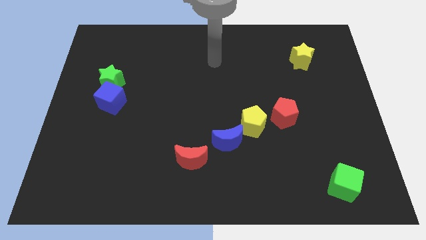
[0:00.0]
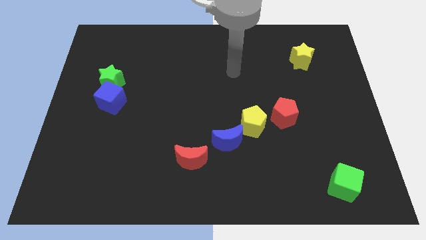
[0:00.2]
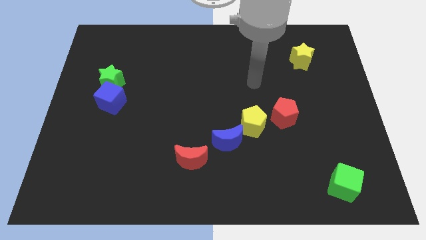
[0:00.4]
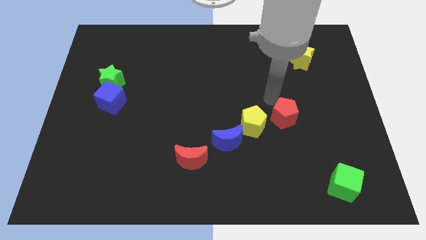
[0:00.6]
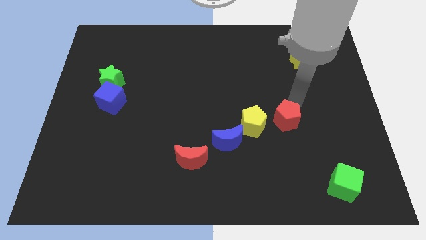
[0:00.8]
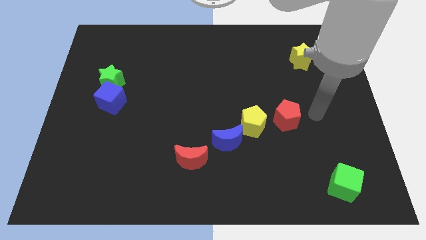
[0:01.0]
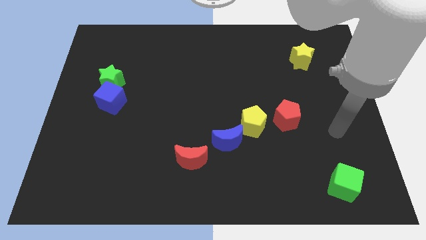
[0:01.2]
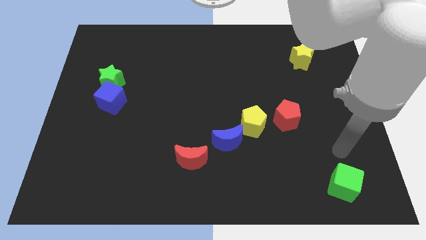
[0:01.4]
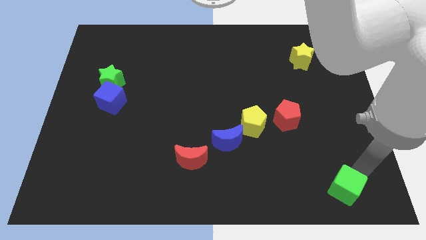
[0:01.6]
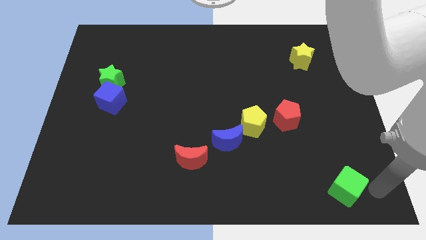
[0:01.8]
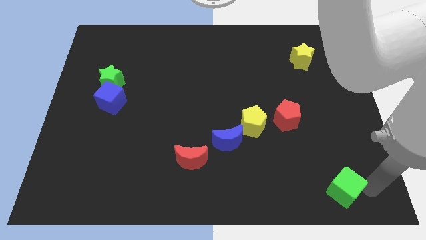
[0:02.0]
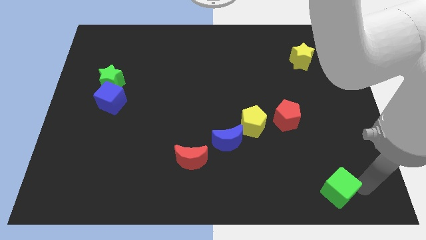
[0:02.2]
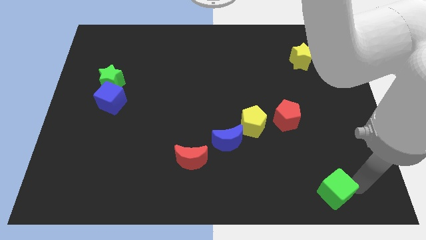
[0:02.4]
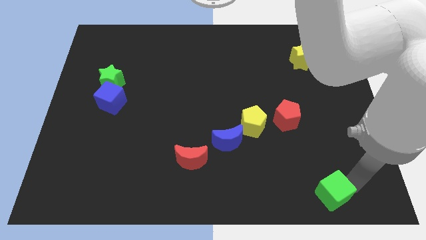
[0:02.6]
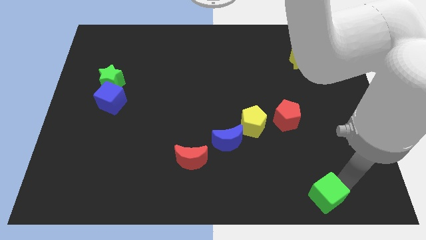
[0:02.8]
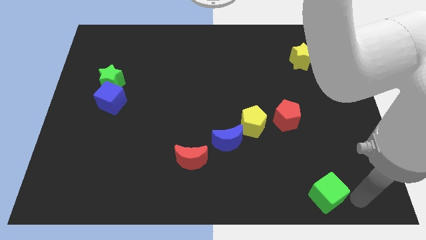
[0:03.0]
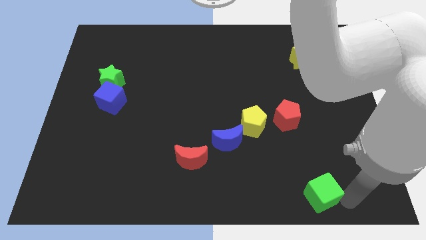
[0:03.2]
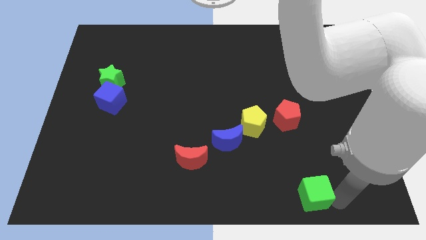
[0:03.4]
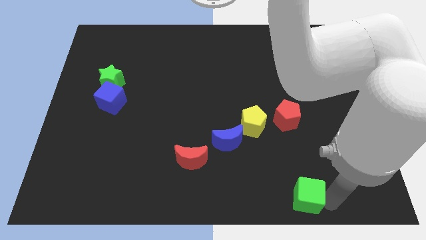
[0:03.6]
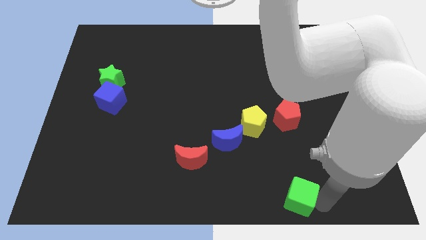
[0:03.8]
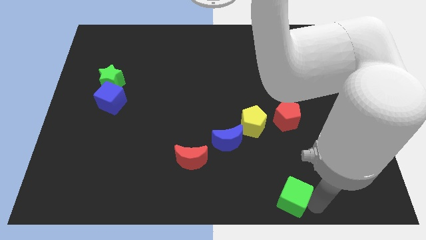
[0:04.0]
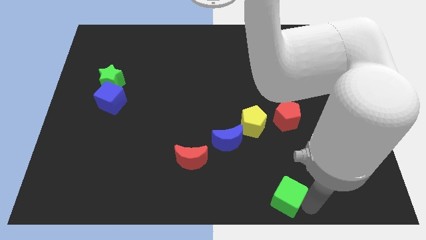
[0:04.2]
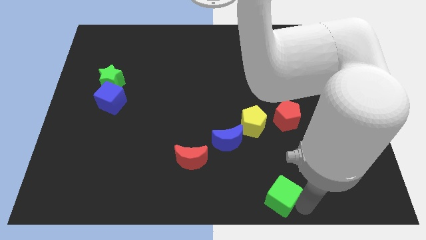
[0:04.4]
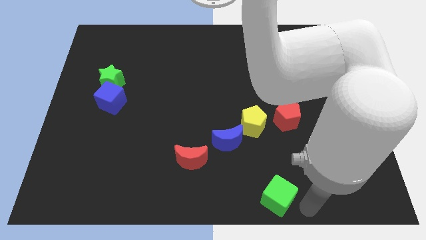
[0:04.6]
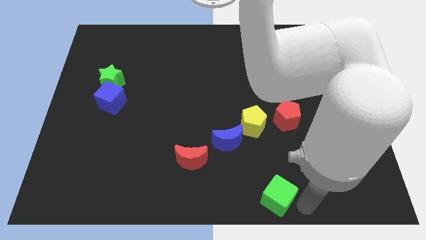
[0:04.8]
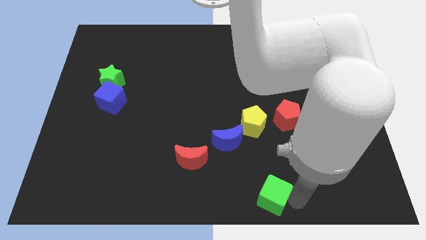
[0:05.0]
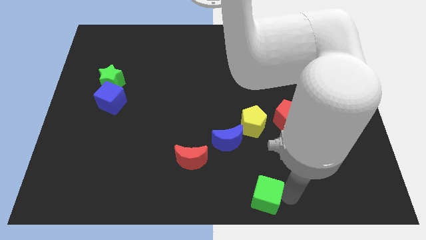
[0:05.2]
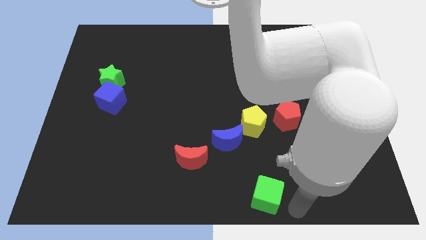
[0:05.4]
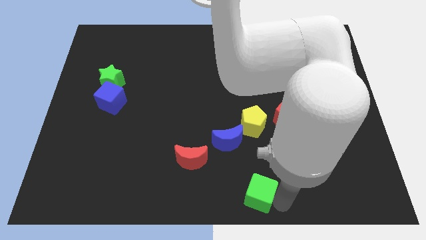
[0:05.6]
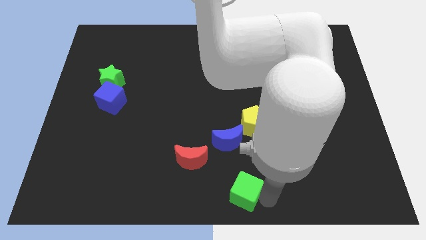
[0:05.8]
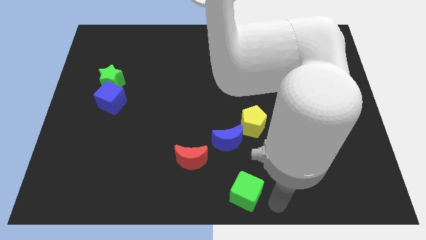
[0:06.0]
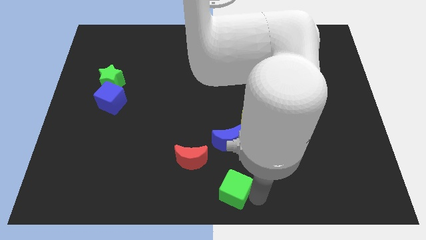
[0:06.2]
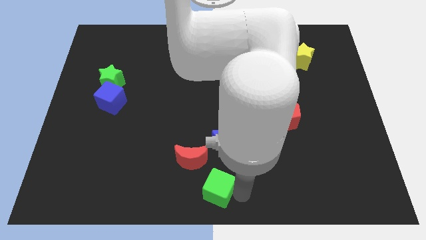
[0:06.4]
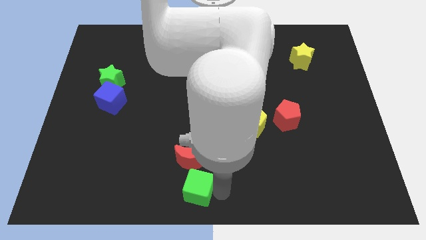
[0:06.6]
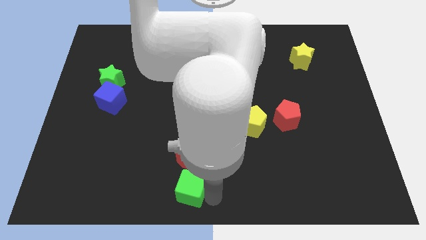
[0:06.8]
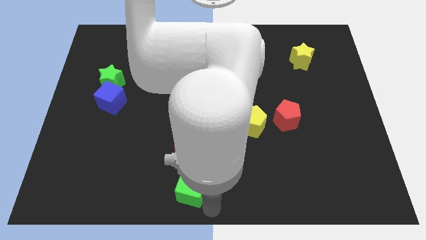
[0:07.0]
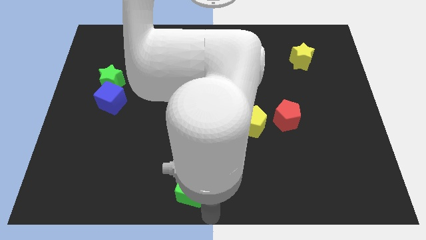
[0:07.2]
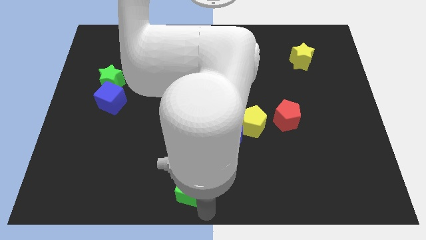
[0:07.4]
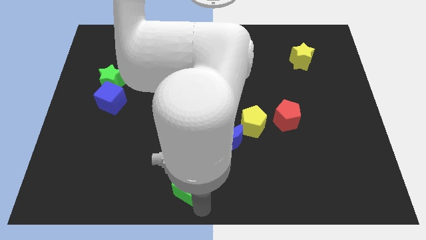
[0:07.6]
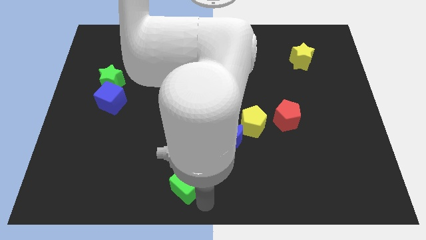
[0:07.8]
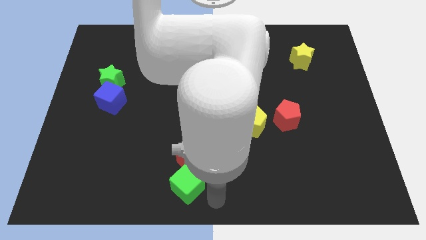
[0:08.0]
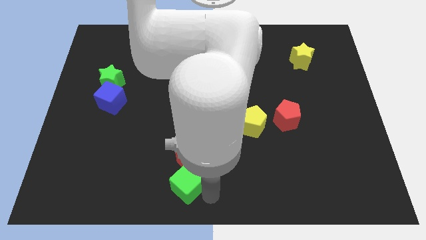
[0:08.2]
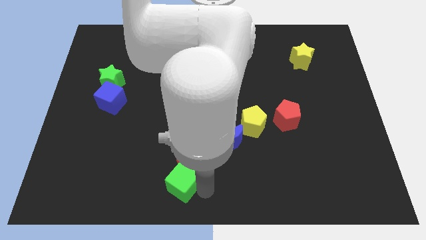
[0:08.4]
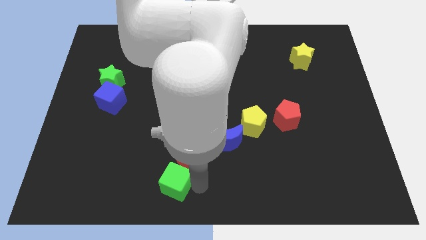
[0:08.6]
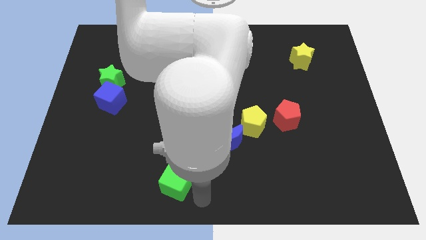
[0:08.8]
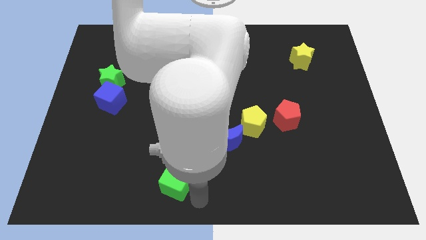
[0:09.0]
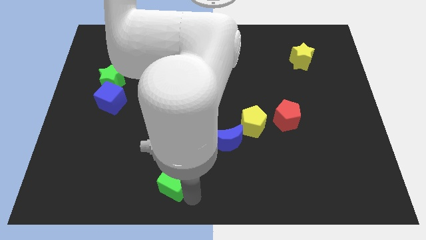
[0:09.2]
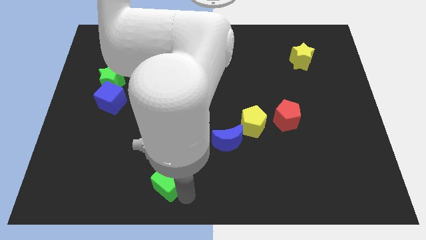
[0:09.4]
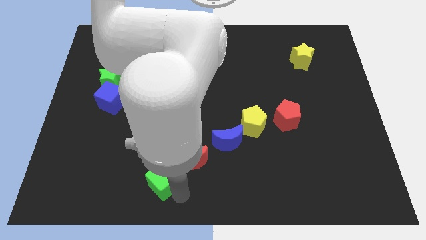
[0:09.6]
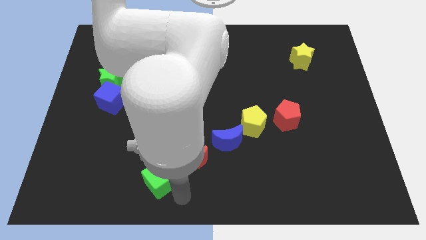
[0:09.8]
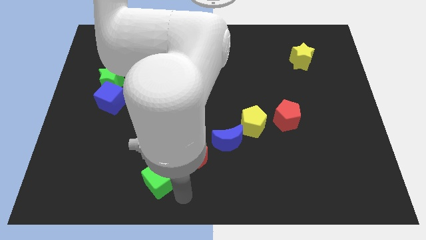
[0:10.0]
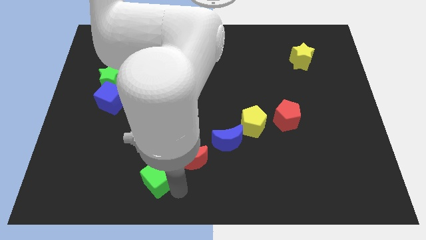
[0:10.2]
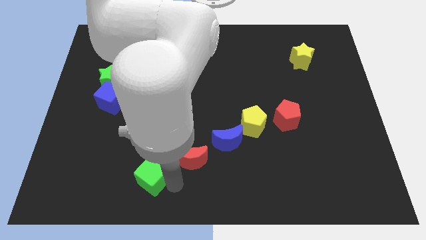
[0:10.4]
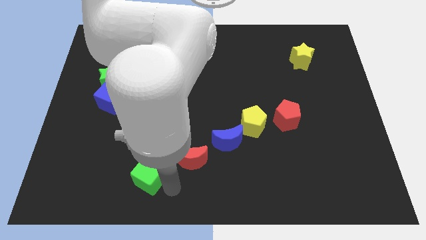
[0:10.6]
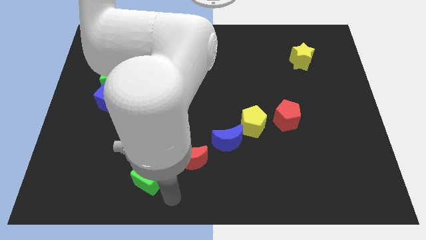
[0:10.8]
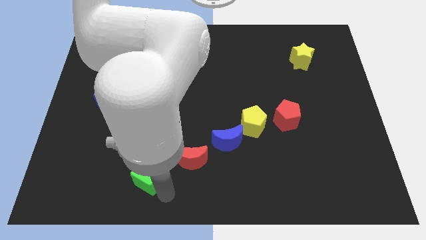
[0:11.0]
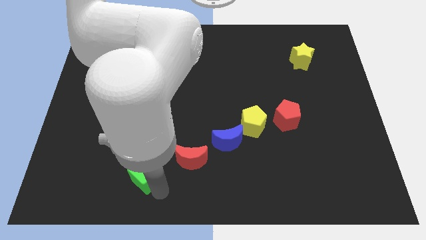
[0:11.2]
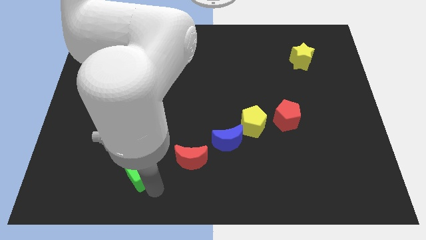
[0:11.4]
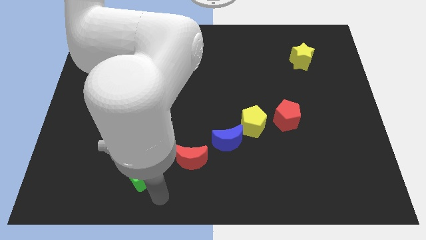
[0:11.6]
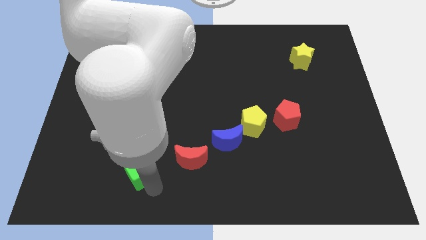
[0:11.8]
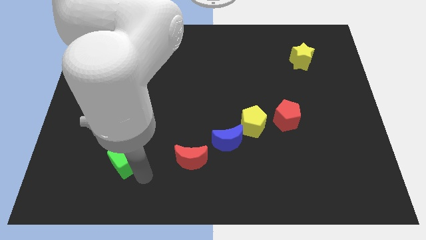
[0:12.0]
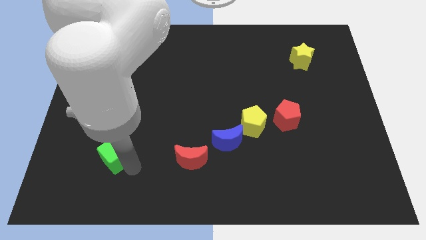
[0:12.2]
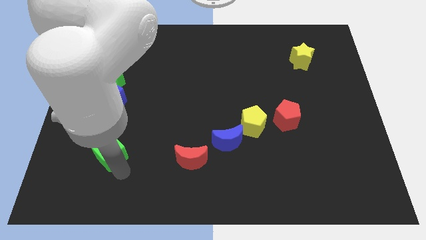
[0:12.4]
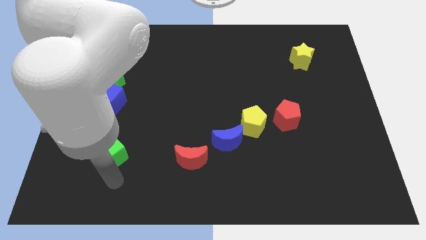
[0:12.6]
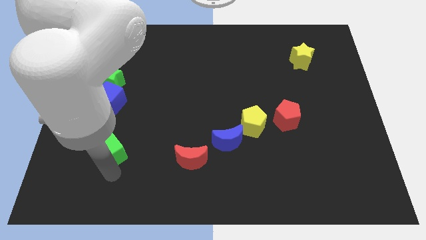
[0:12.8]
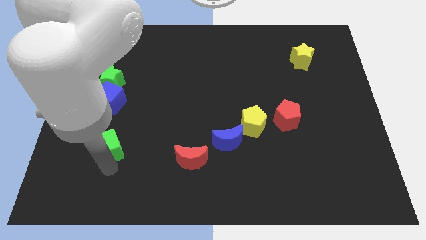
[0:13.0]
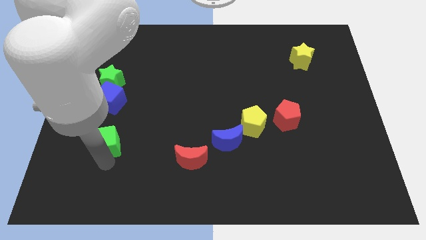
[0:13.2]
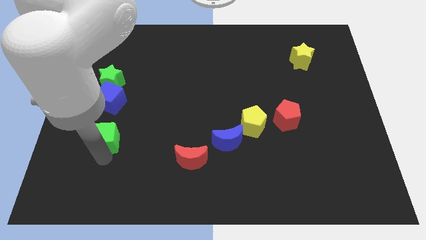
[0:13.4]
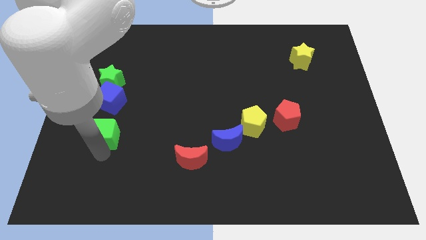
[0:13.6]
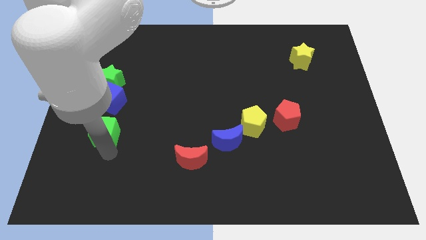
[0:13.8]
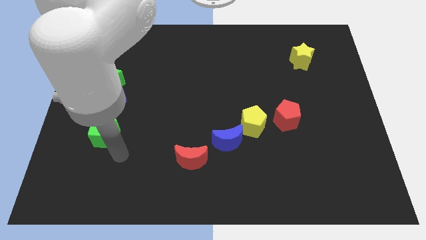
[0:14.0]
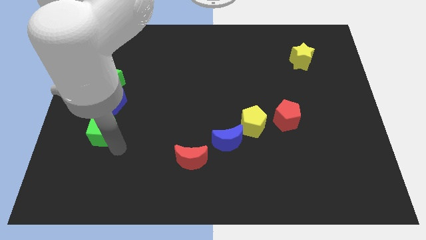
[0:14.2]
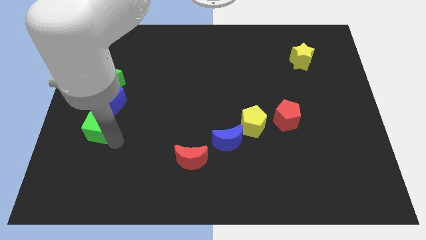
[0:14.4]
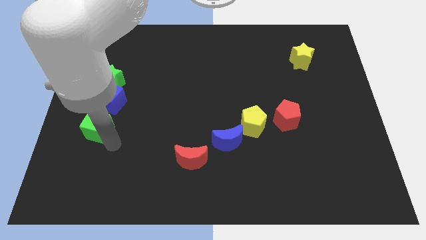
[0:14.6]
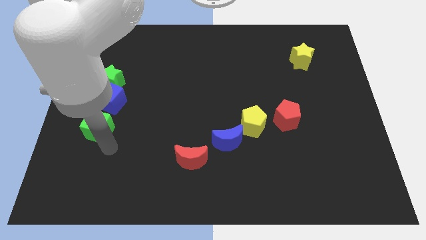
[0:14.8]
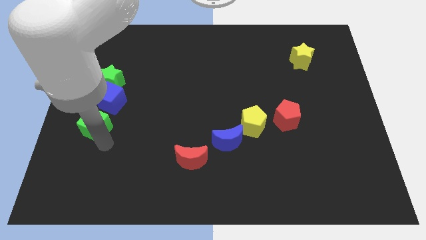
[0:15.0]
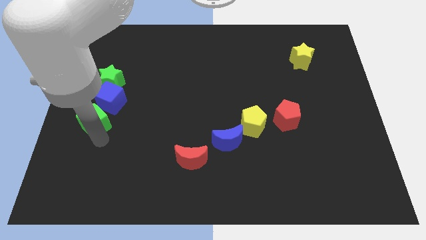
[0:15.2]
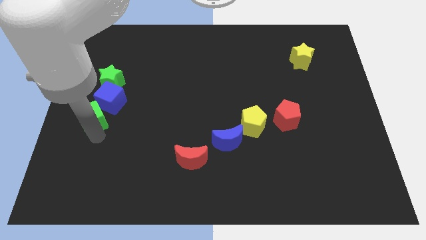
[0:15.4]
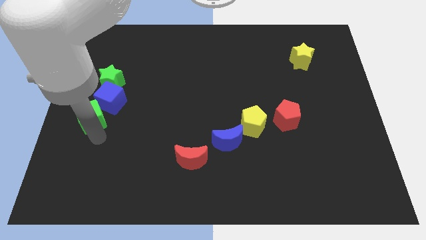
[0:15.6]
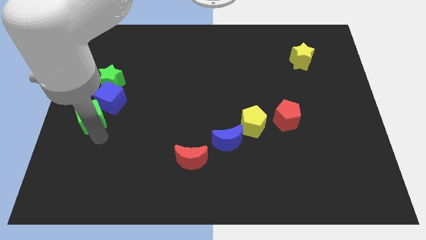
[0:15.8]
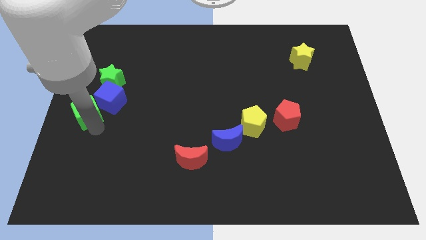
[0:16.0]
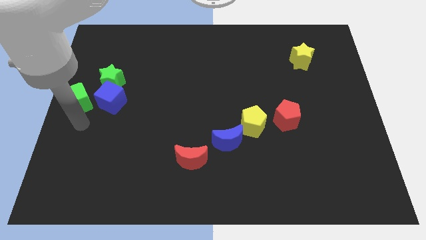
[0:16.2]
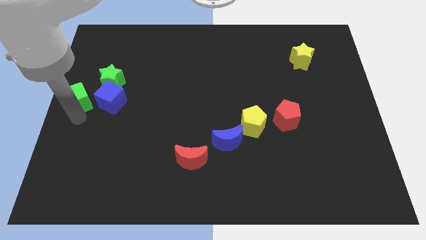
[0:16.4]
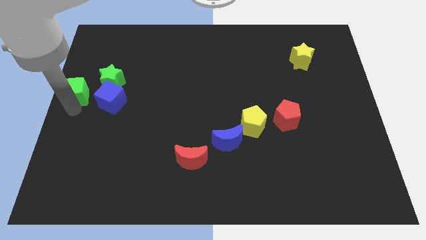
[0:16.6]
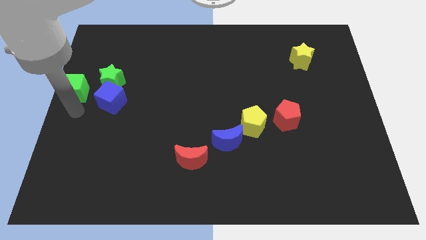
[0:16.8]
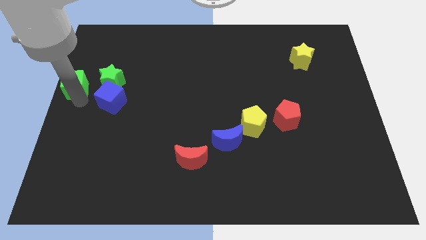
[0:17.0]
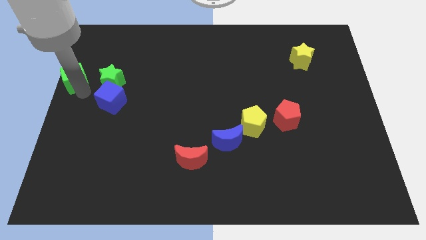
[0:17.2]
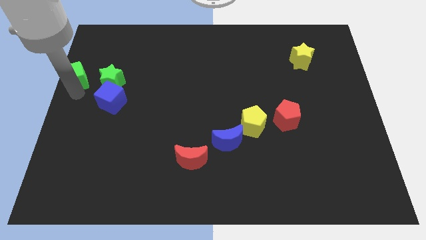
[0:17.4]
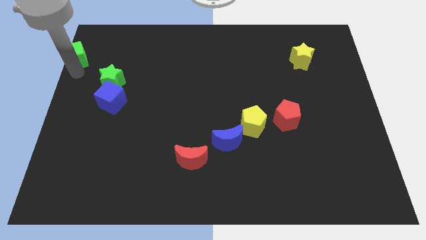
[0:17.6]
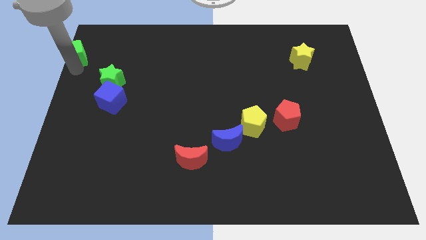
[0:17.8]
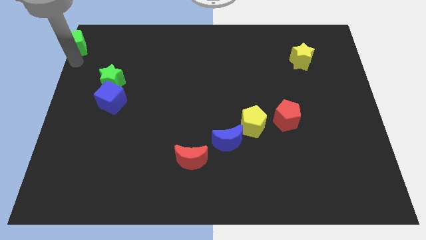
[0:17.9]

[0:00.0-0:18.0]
slide the green cube to the upper left corner
